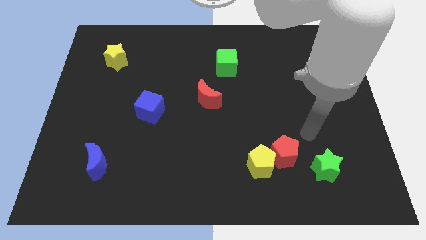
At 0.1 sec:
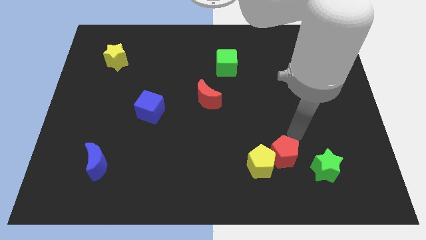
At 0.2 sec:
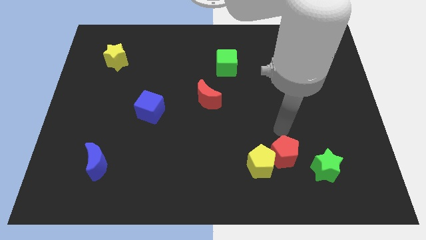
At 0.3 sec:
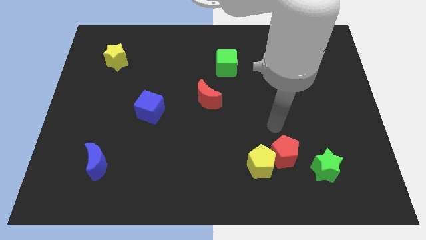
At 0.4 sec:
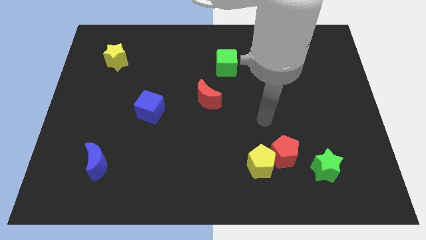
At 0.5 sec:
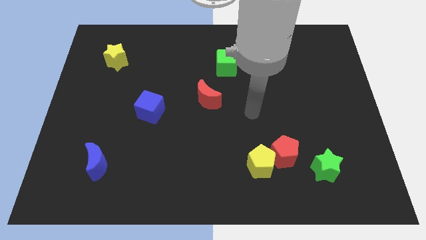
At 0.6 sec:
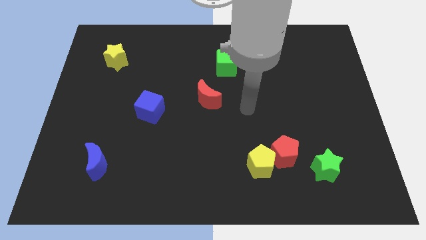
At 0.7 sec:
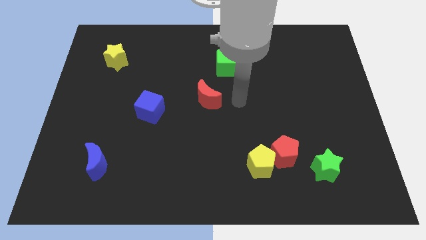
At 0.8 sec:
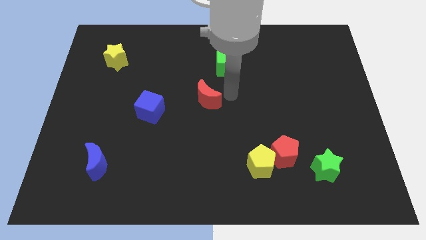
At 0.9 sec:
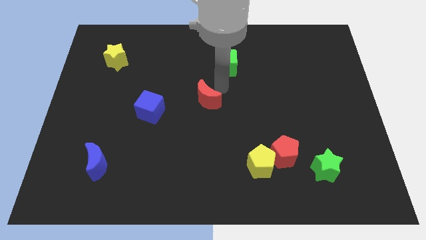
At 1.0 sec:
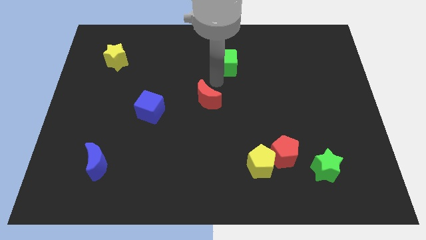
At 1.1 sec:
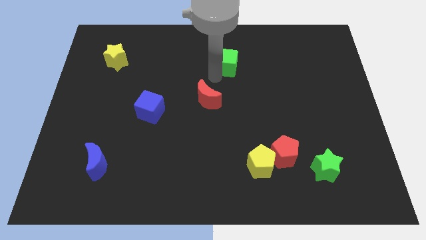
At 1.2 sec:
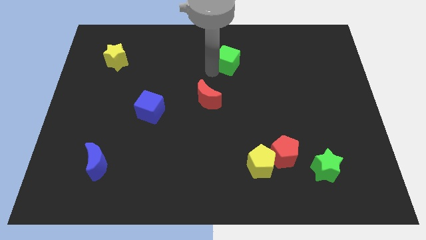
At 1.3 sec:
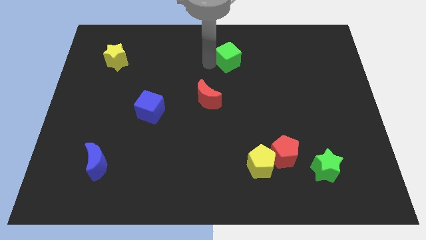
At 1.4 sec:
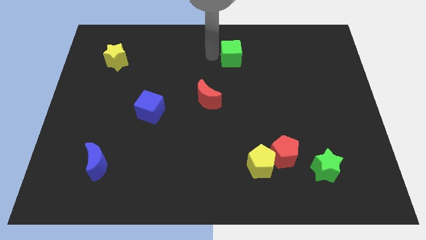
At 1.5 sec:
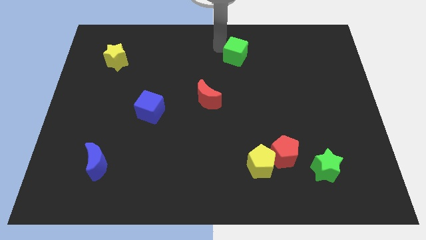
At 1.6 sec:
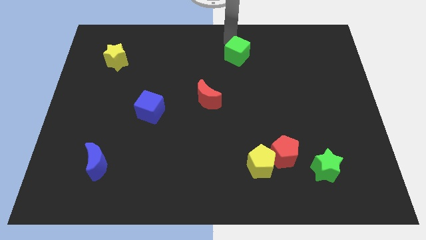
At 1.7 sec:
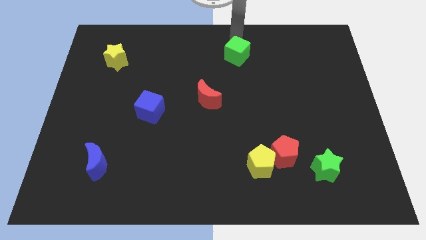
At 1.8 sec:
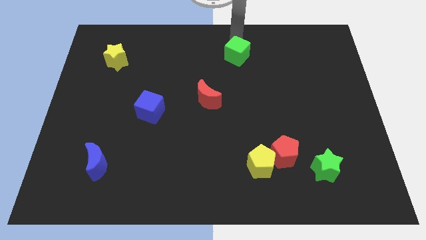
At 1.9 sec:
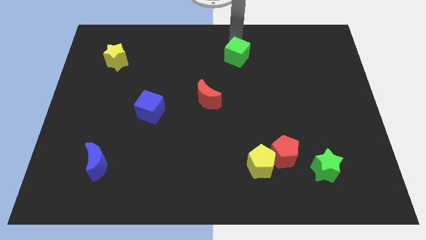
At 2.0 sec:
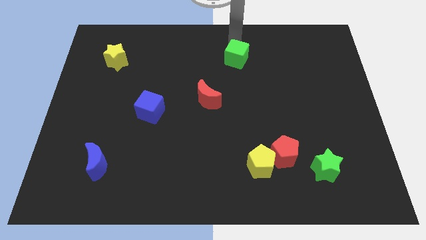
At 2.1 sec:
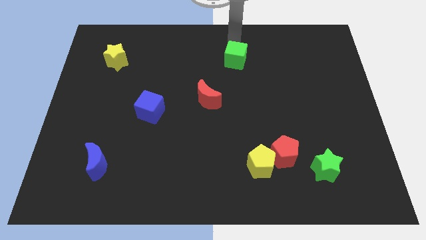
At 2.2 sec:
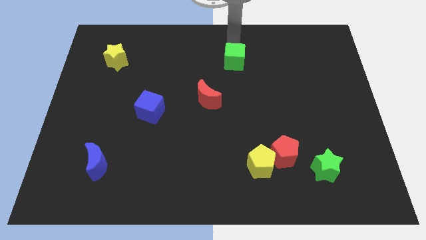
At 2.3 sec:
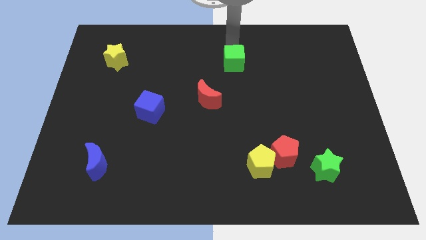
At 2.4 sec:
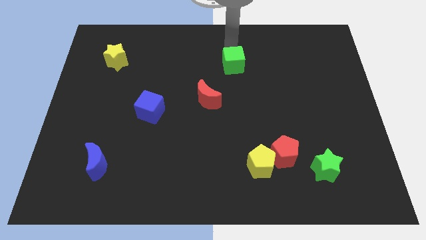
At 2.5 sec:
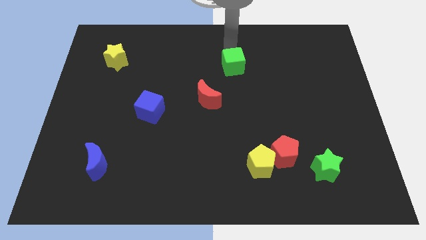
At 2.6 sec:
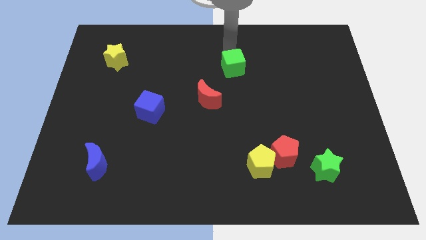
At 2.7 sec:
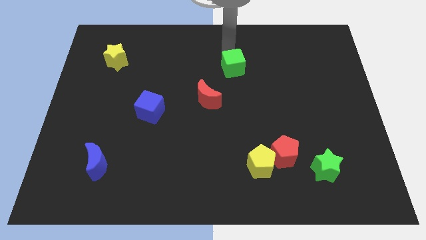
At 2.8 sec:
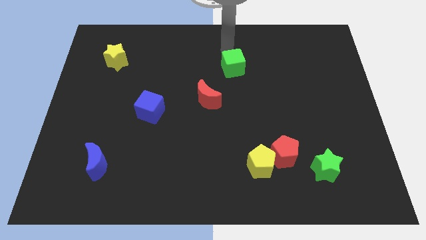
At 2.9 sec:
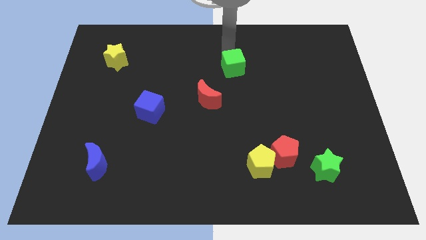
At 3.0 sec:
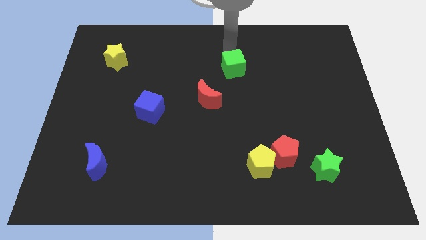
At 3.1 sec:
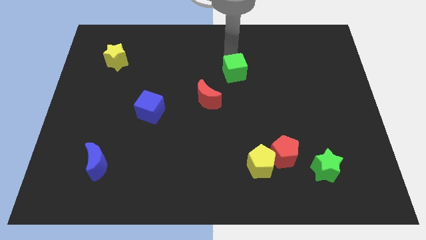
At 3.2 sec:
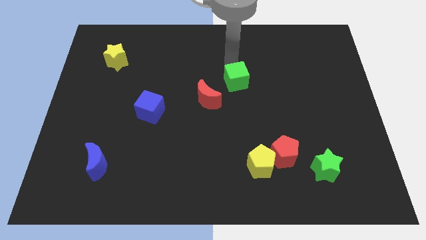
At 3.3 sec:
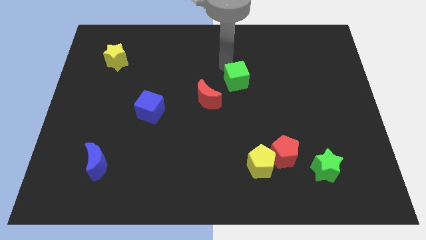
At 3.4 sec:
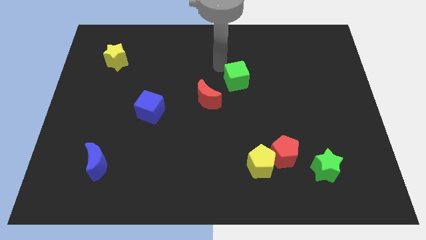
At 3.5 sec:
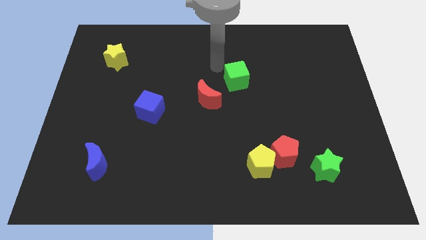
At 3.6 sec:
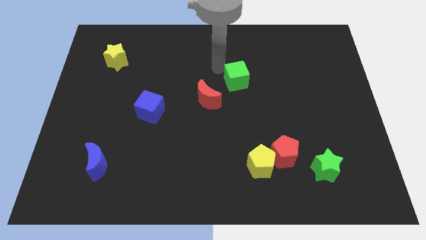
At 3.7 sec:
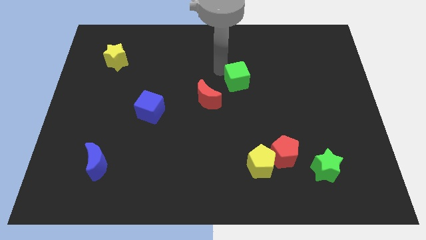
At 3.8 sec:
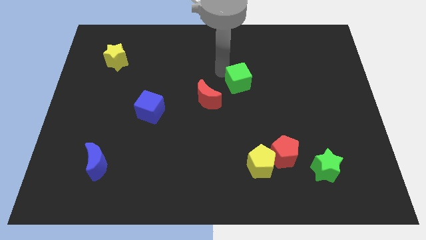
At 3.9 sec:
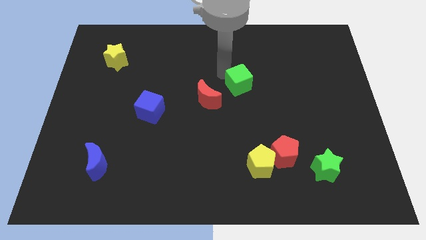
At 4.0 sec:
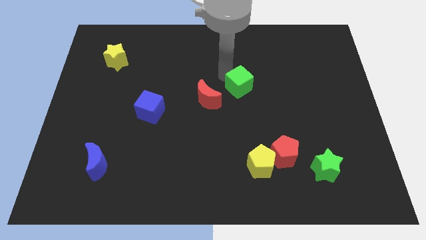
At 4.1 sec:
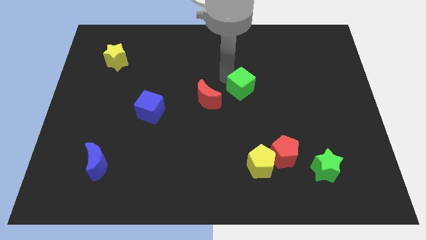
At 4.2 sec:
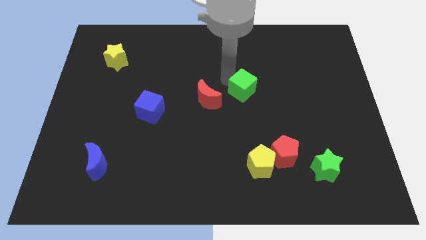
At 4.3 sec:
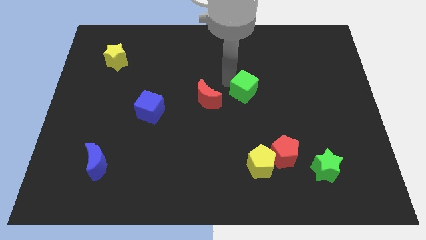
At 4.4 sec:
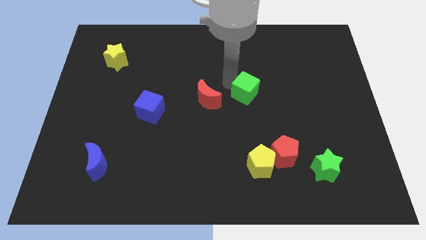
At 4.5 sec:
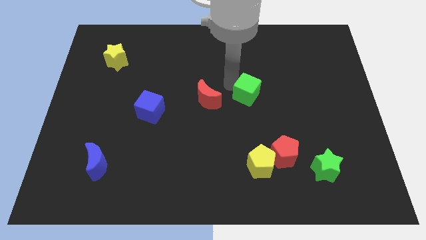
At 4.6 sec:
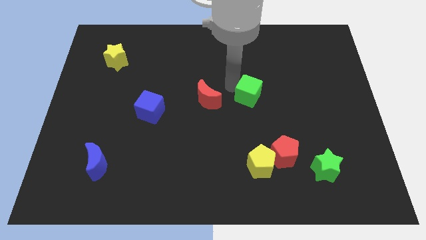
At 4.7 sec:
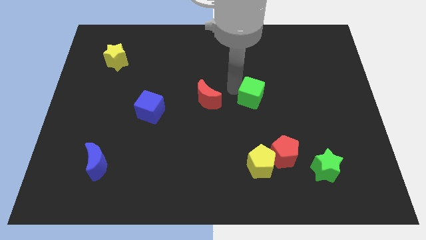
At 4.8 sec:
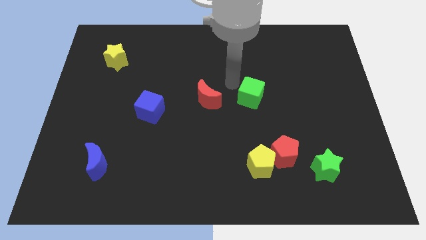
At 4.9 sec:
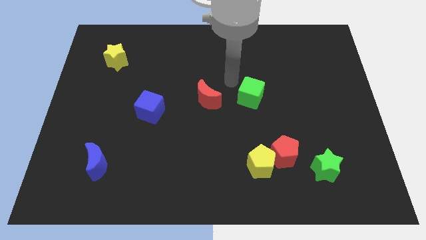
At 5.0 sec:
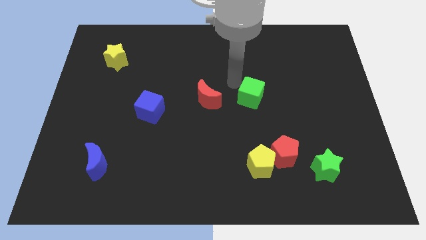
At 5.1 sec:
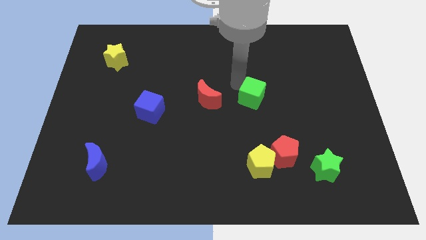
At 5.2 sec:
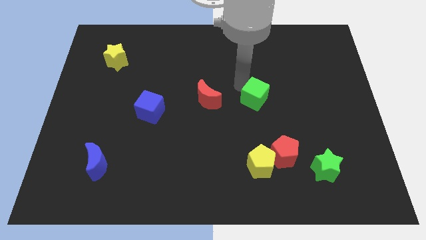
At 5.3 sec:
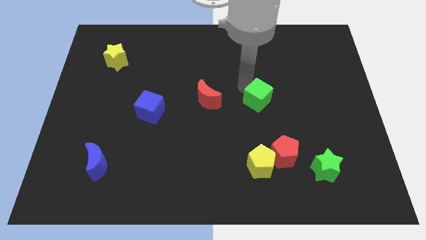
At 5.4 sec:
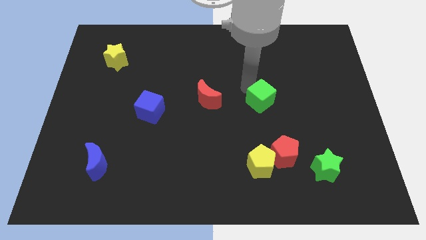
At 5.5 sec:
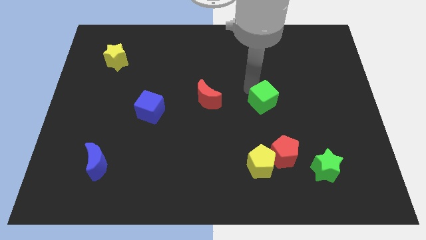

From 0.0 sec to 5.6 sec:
push the green cube to the top side of the red pentagon

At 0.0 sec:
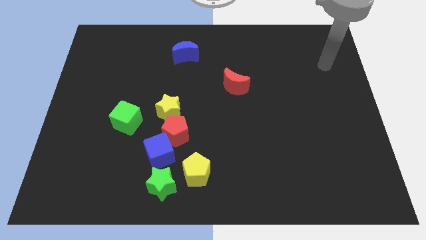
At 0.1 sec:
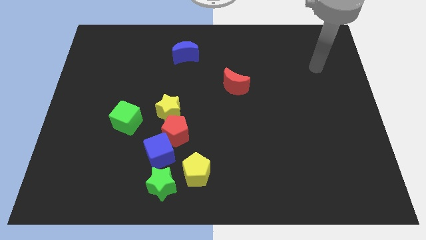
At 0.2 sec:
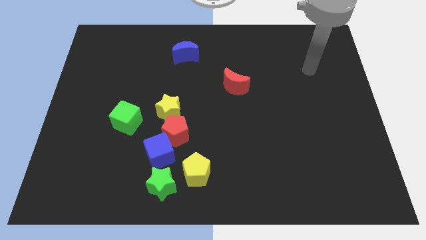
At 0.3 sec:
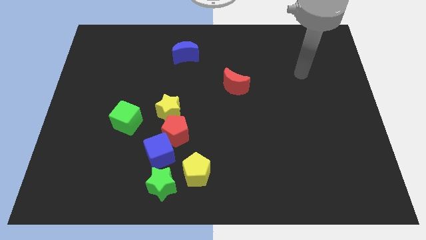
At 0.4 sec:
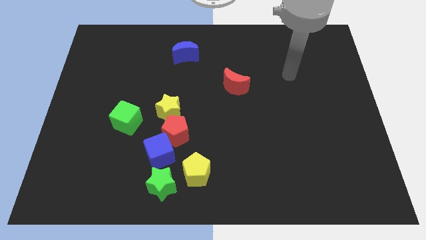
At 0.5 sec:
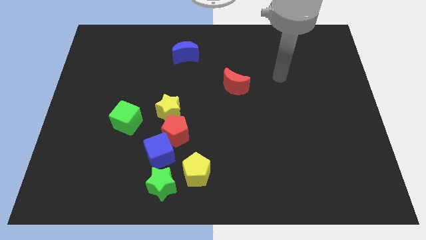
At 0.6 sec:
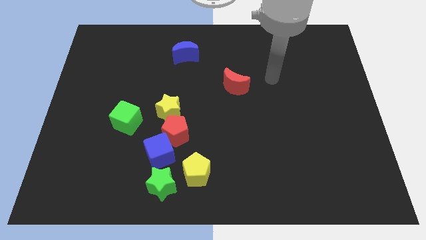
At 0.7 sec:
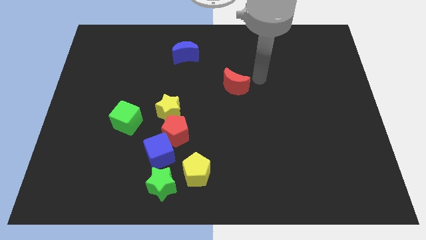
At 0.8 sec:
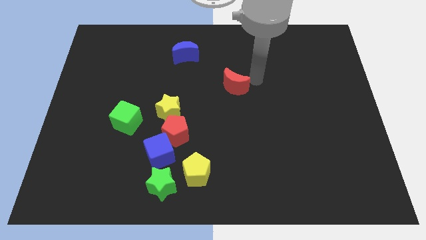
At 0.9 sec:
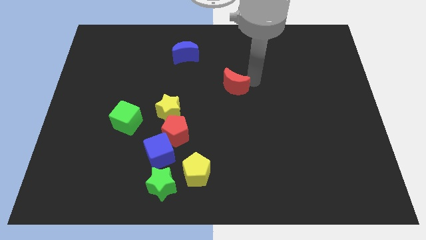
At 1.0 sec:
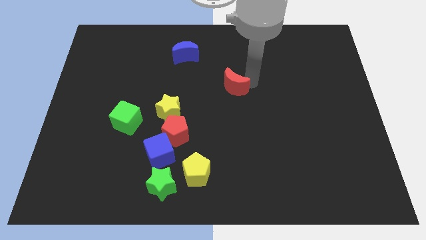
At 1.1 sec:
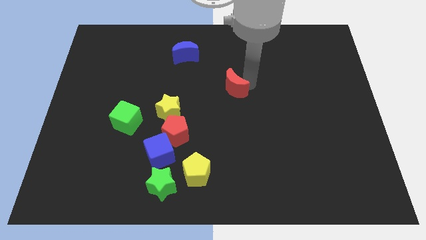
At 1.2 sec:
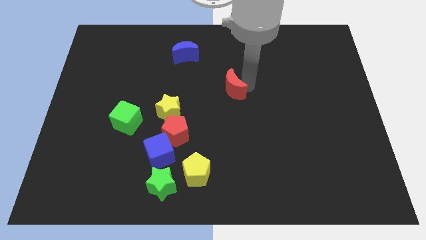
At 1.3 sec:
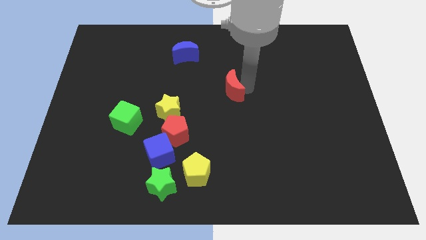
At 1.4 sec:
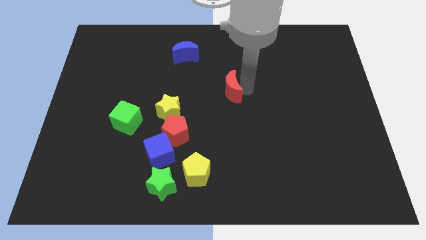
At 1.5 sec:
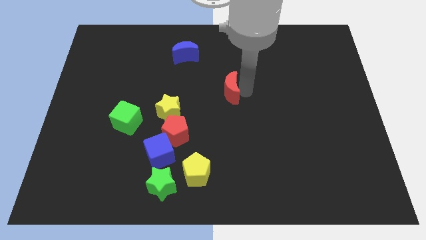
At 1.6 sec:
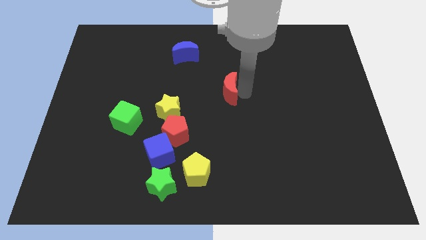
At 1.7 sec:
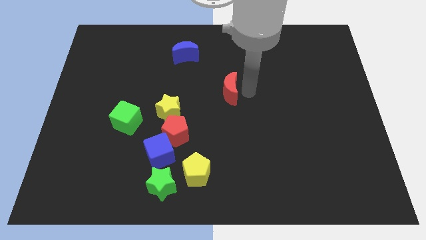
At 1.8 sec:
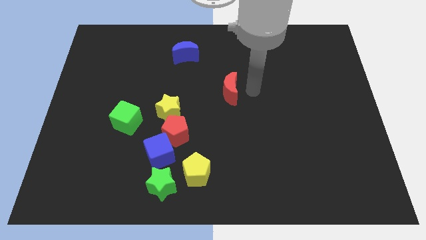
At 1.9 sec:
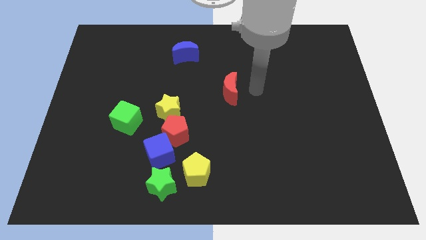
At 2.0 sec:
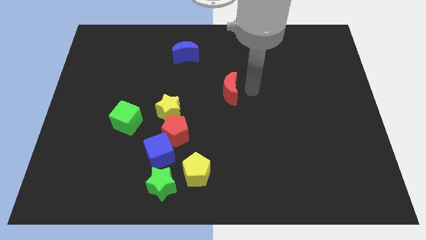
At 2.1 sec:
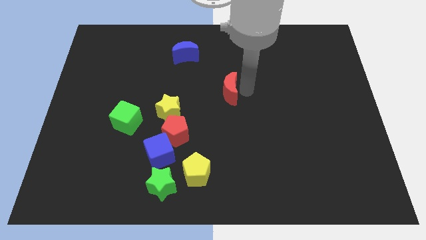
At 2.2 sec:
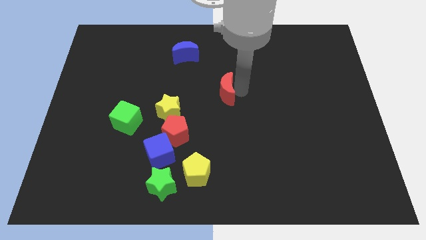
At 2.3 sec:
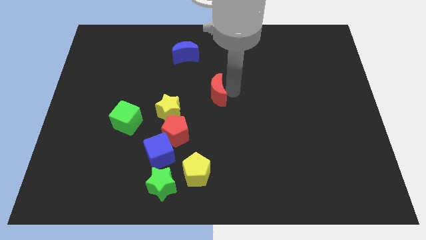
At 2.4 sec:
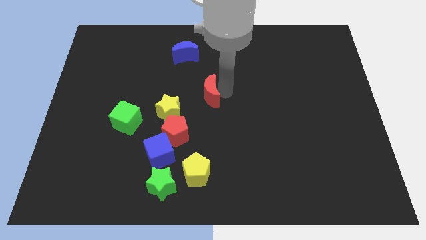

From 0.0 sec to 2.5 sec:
slide the red moon to the top right side of the yellow star
